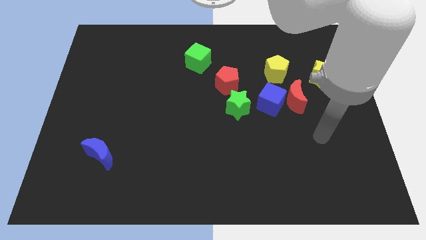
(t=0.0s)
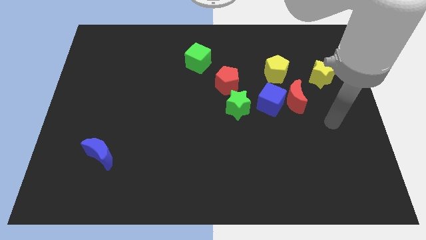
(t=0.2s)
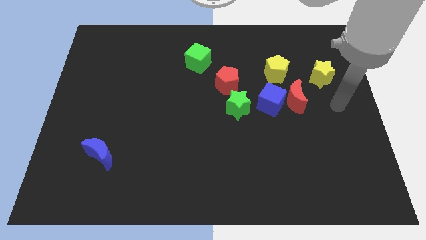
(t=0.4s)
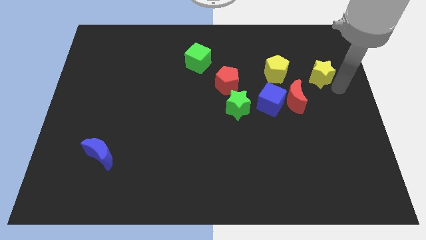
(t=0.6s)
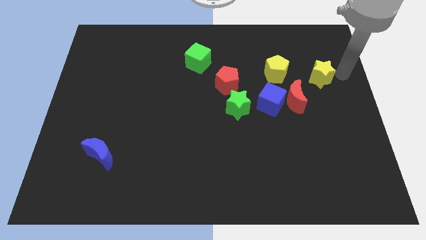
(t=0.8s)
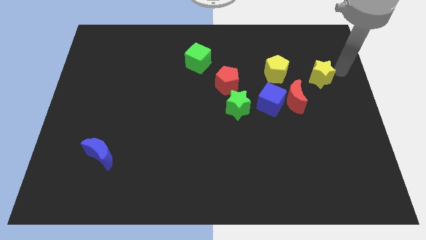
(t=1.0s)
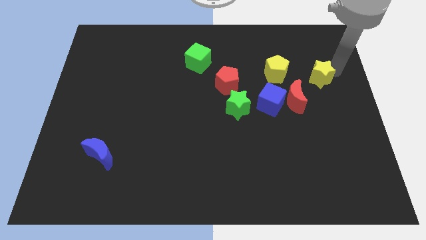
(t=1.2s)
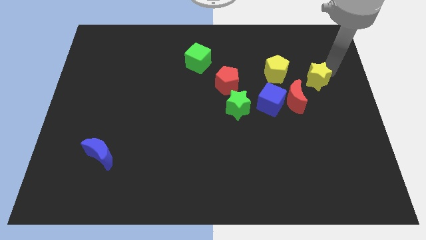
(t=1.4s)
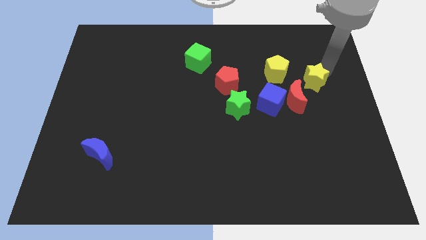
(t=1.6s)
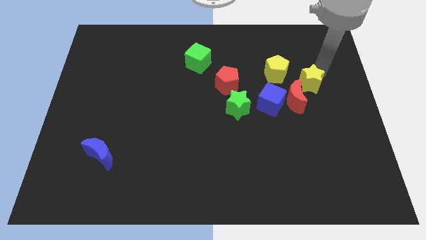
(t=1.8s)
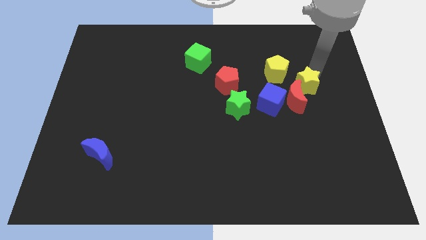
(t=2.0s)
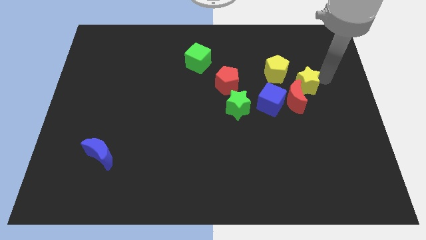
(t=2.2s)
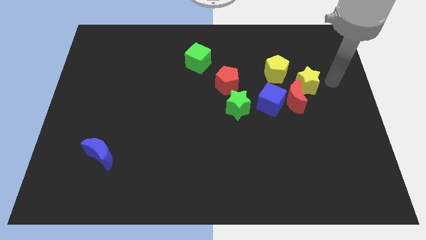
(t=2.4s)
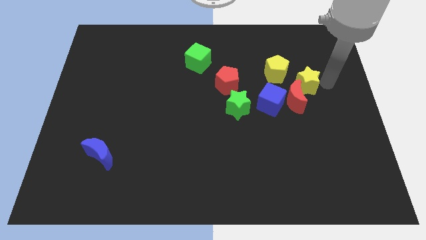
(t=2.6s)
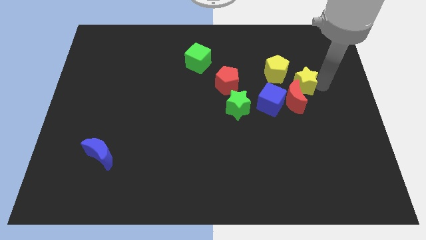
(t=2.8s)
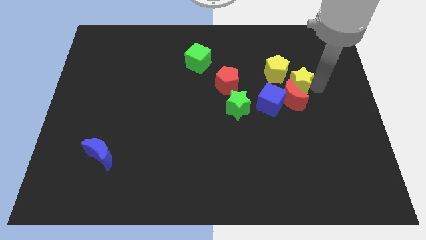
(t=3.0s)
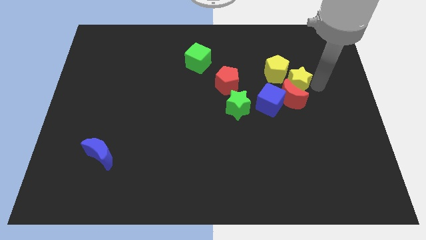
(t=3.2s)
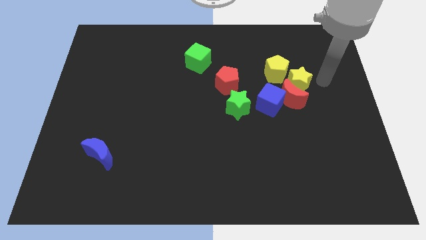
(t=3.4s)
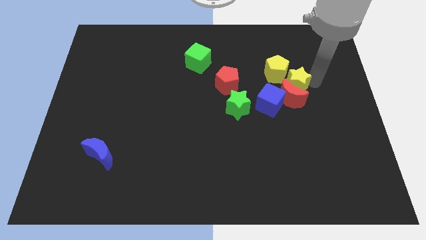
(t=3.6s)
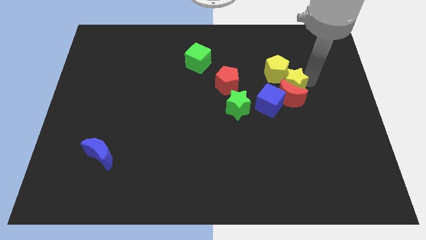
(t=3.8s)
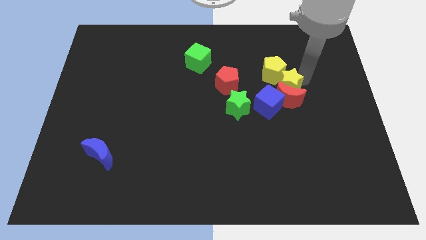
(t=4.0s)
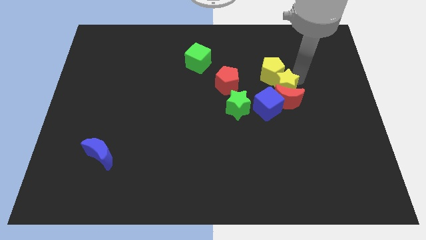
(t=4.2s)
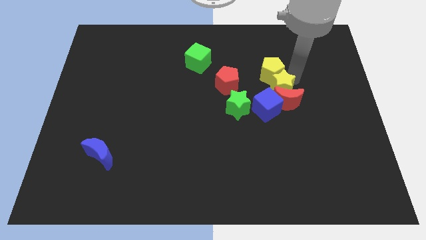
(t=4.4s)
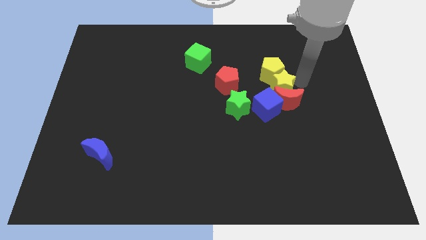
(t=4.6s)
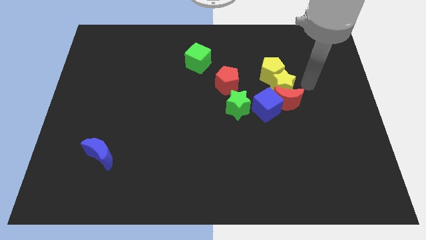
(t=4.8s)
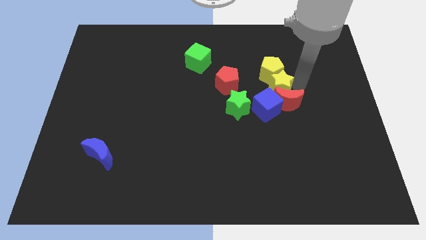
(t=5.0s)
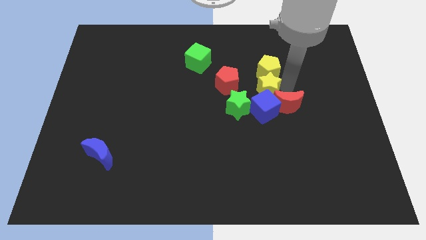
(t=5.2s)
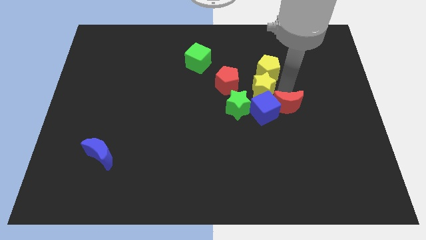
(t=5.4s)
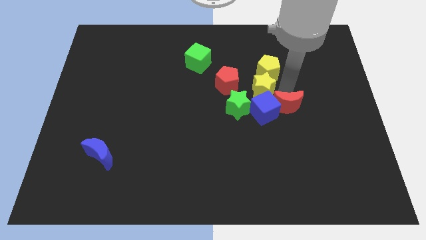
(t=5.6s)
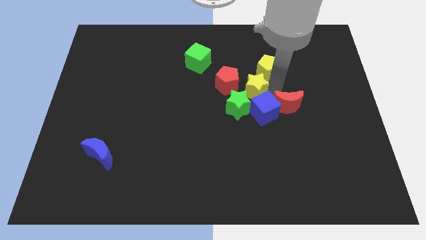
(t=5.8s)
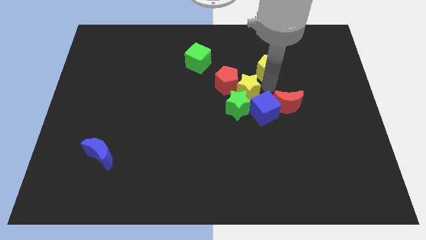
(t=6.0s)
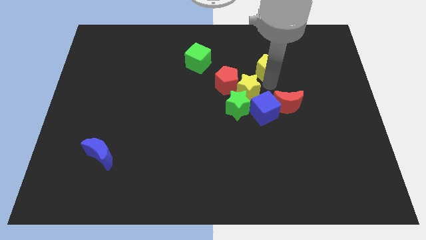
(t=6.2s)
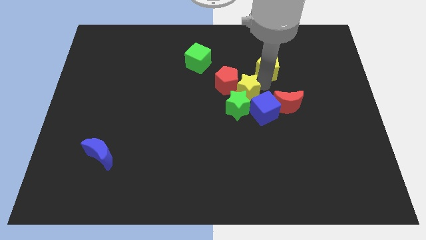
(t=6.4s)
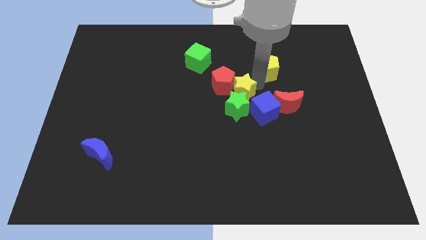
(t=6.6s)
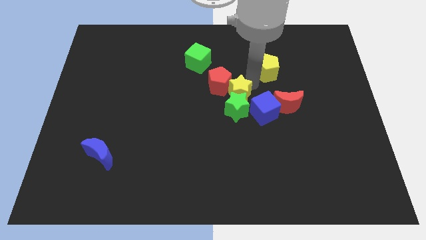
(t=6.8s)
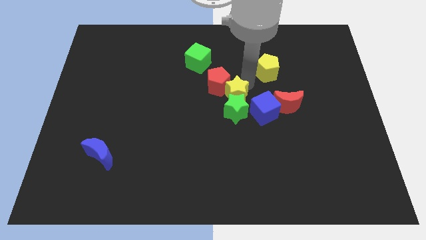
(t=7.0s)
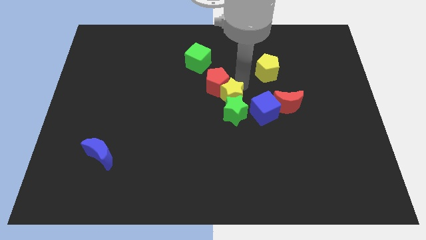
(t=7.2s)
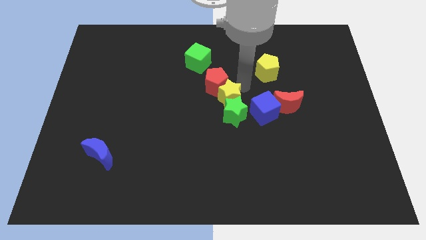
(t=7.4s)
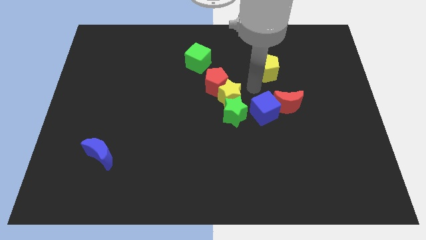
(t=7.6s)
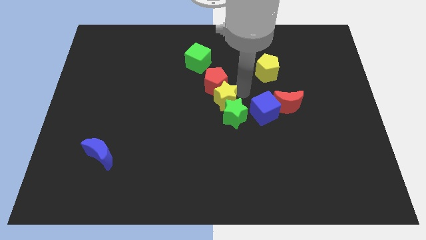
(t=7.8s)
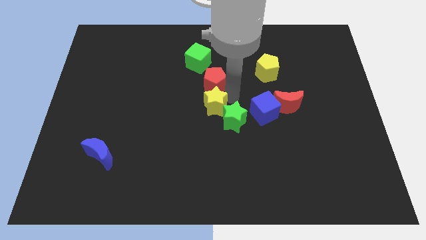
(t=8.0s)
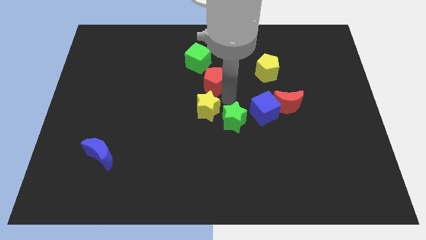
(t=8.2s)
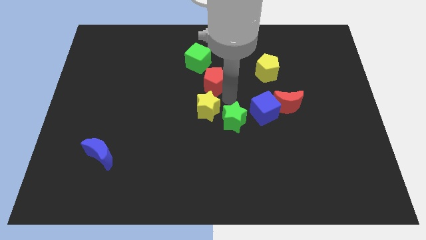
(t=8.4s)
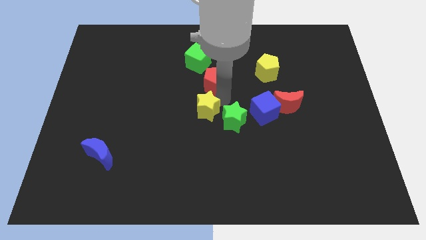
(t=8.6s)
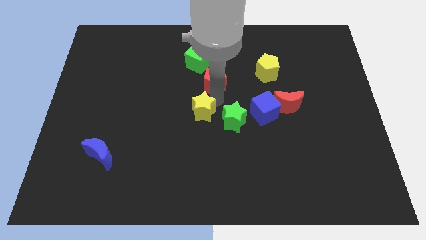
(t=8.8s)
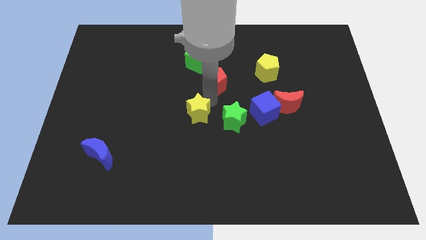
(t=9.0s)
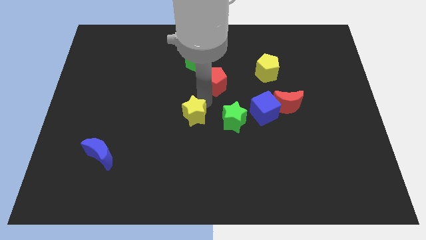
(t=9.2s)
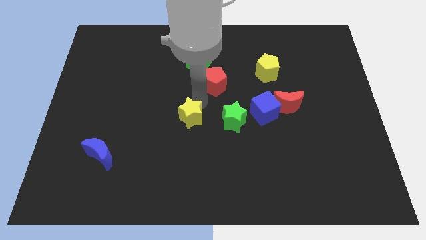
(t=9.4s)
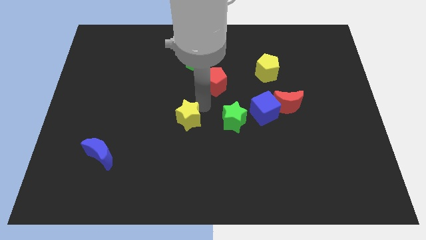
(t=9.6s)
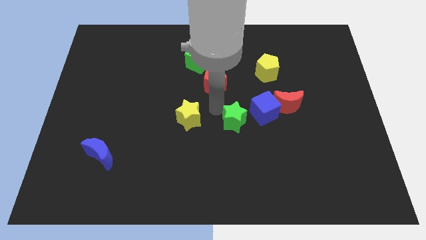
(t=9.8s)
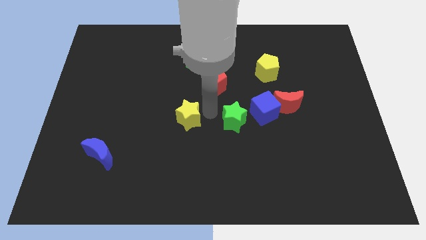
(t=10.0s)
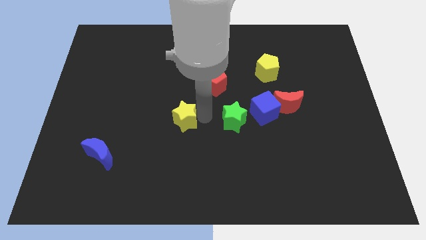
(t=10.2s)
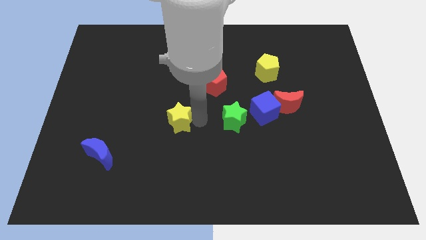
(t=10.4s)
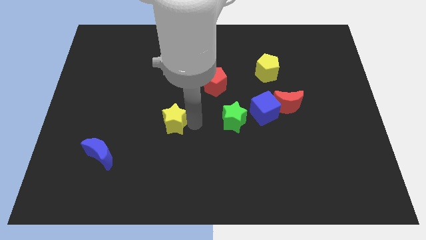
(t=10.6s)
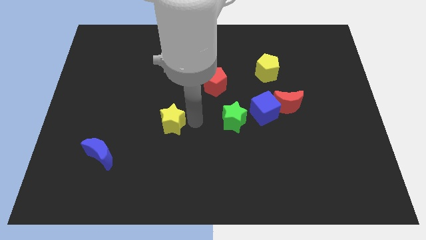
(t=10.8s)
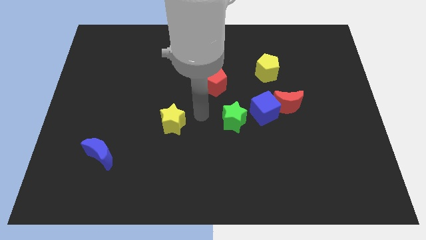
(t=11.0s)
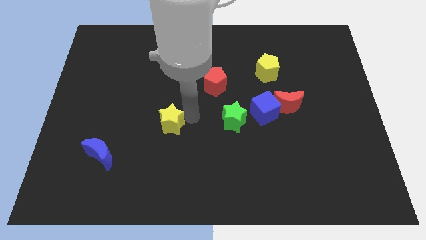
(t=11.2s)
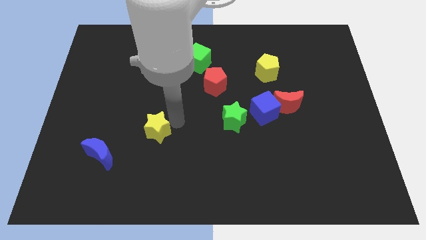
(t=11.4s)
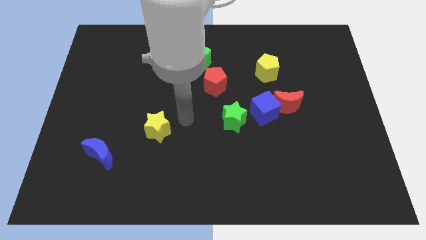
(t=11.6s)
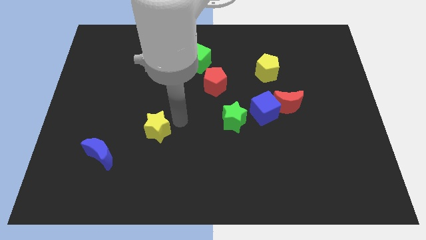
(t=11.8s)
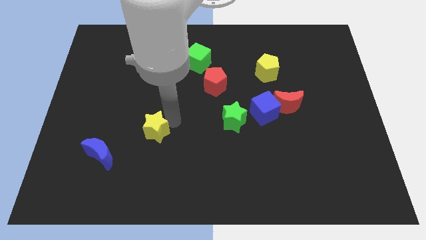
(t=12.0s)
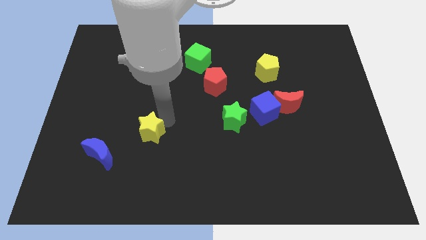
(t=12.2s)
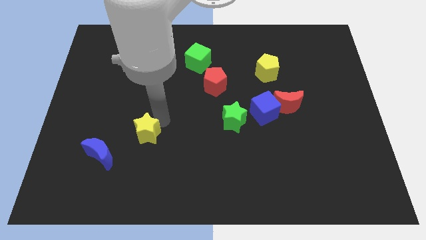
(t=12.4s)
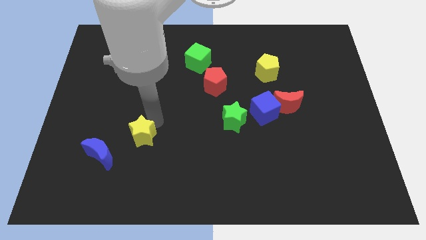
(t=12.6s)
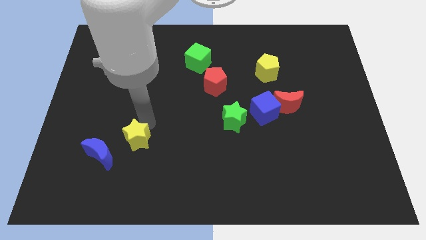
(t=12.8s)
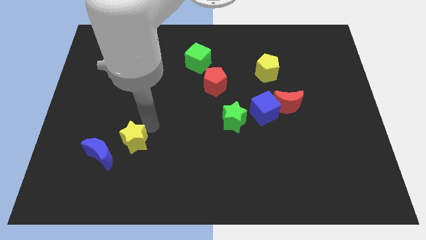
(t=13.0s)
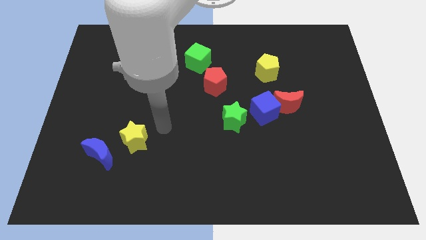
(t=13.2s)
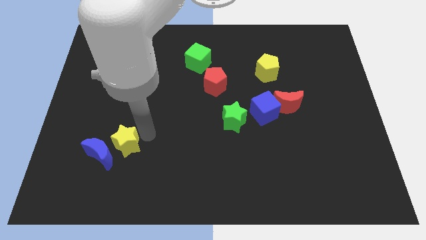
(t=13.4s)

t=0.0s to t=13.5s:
move the yellow star close to the blue moon
